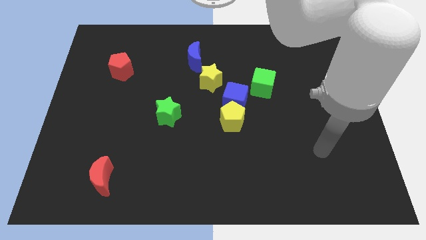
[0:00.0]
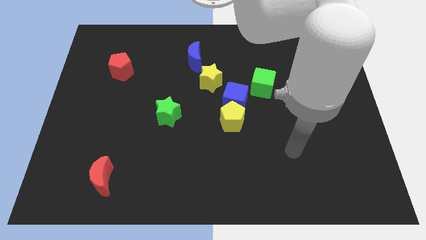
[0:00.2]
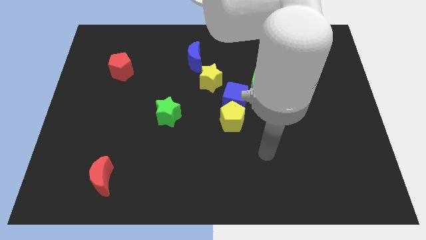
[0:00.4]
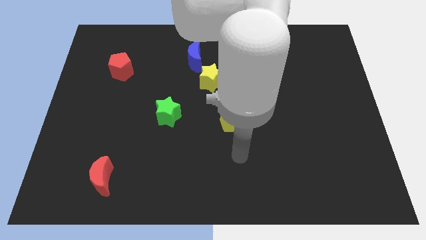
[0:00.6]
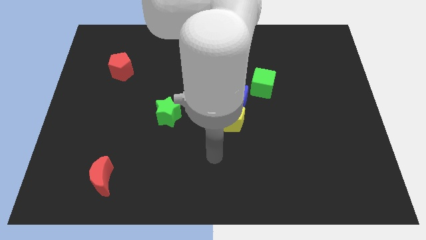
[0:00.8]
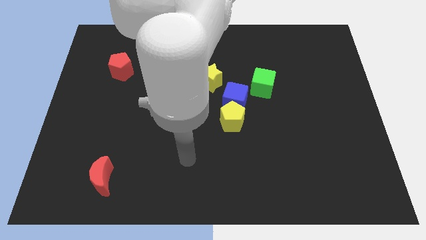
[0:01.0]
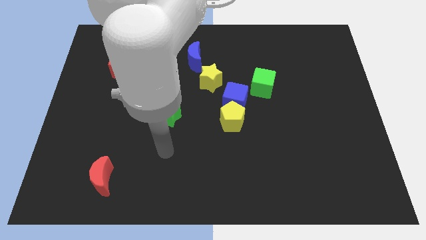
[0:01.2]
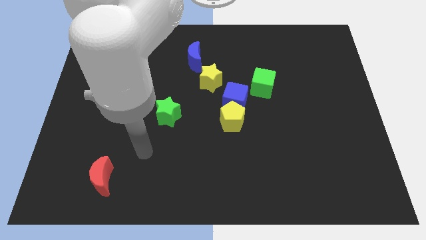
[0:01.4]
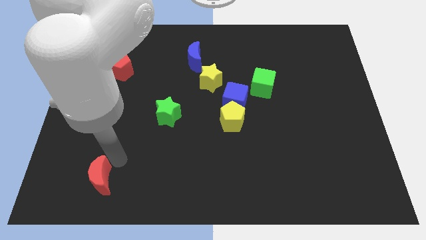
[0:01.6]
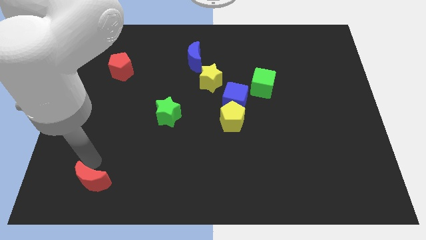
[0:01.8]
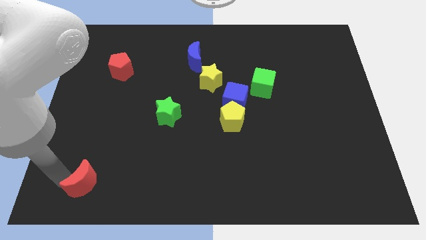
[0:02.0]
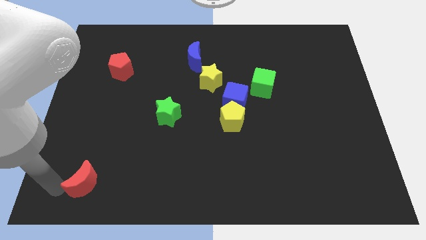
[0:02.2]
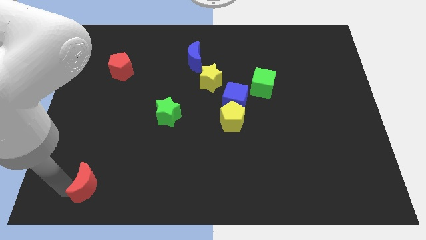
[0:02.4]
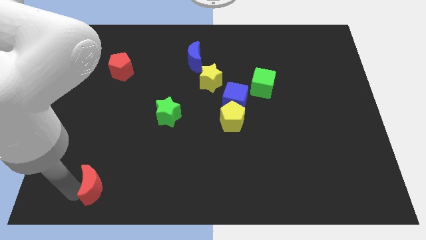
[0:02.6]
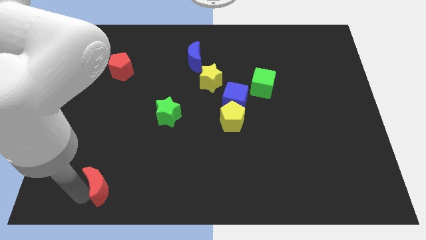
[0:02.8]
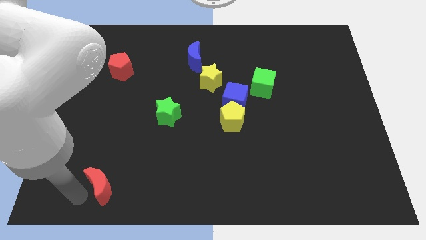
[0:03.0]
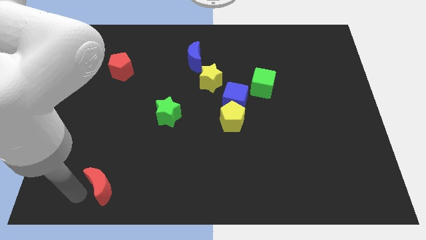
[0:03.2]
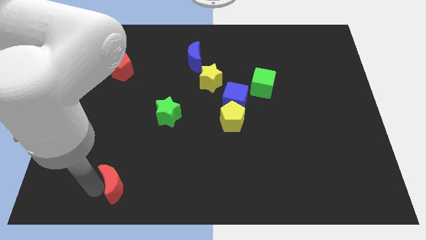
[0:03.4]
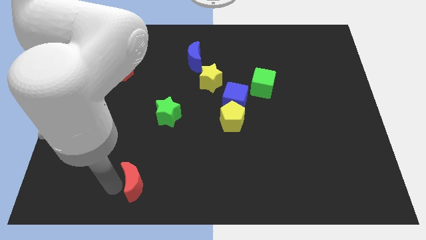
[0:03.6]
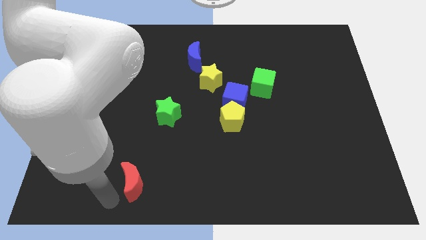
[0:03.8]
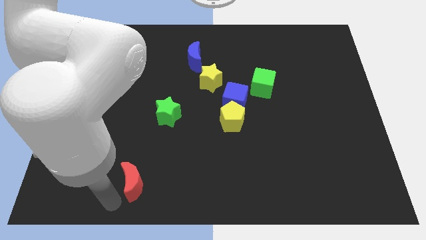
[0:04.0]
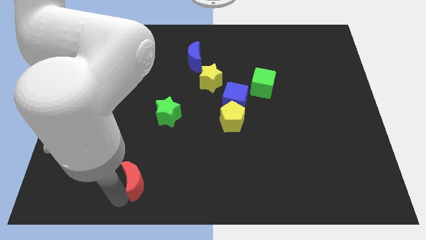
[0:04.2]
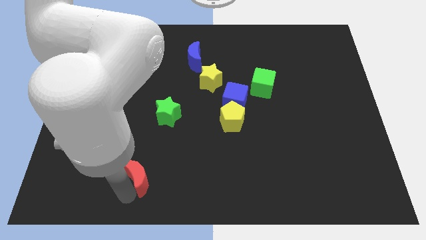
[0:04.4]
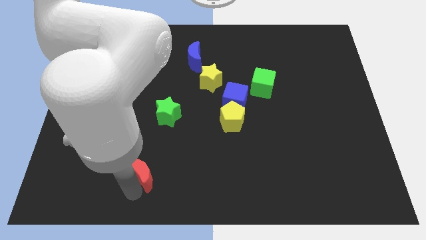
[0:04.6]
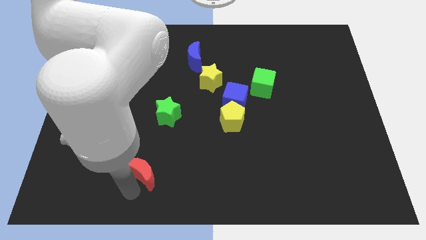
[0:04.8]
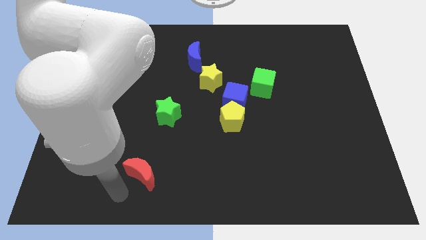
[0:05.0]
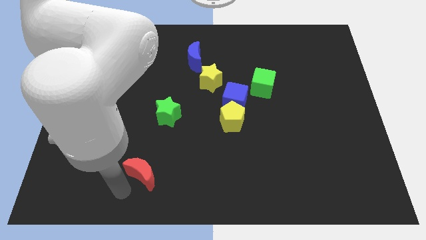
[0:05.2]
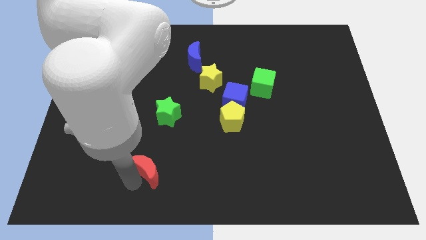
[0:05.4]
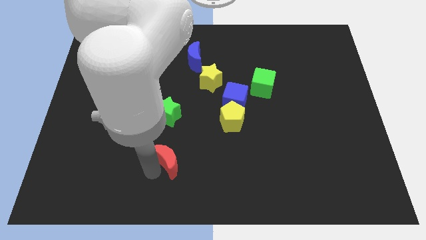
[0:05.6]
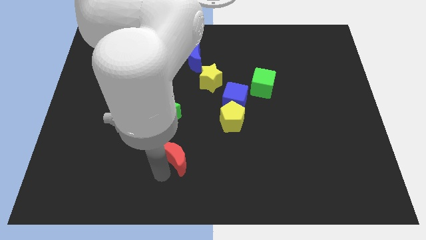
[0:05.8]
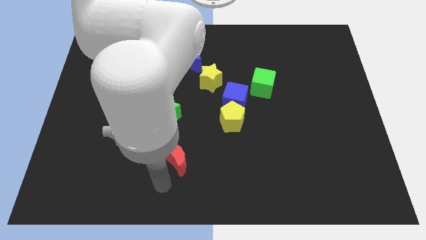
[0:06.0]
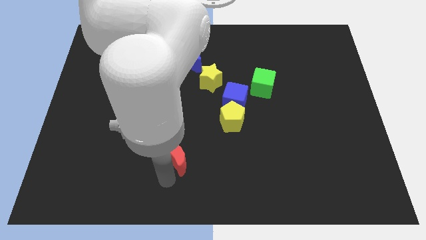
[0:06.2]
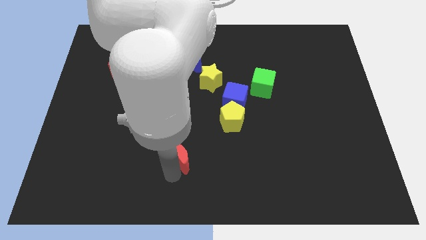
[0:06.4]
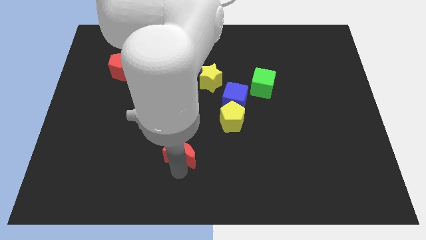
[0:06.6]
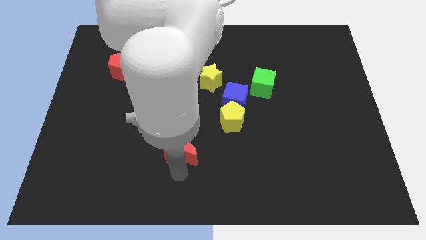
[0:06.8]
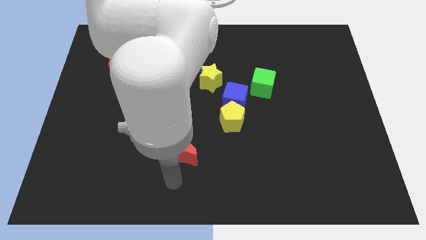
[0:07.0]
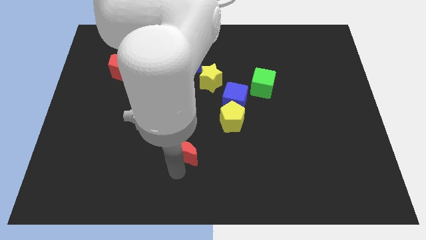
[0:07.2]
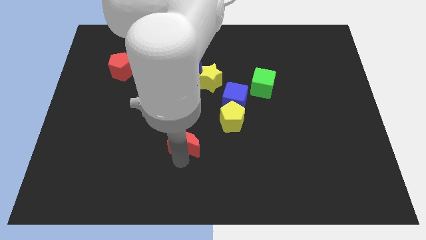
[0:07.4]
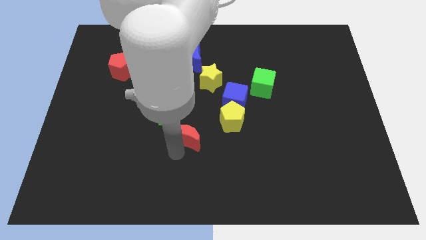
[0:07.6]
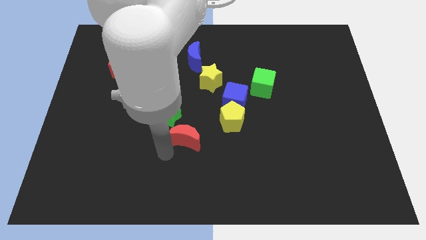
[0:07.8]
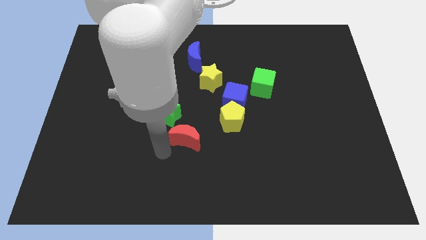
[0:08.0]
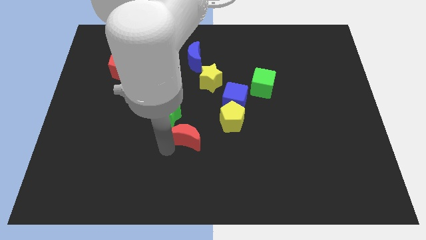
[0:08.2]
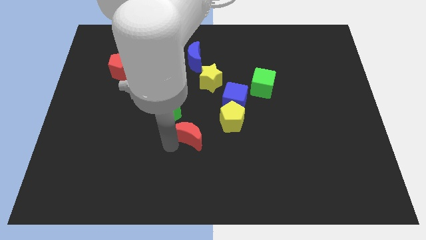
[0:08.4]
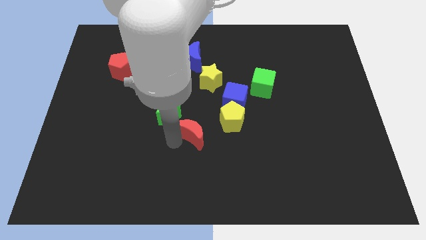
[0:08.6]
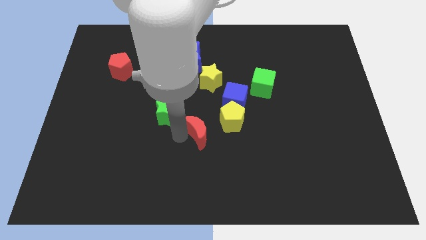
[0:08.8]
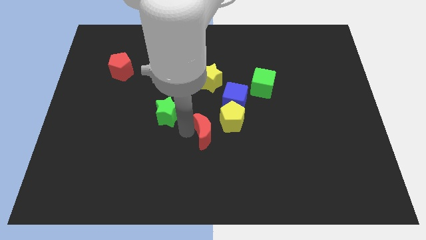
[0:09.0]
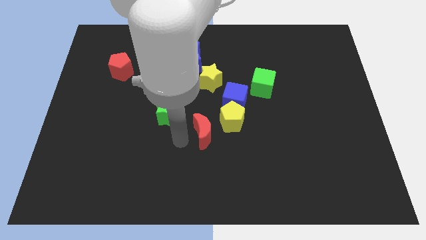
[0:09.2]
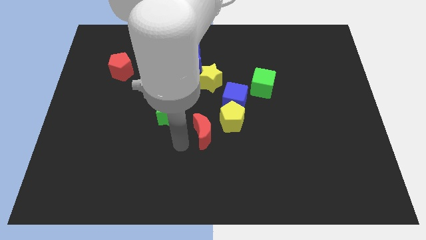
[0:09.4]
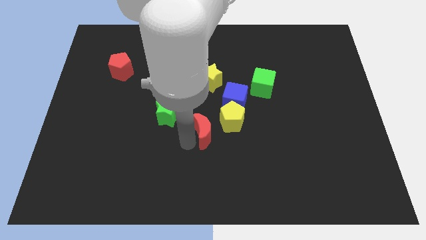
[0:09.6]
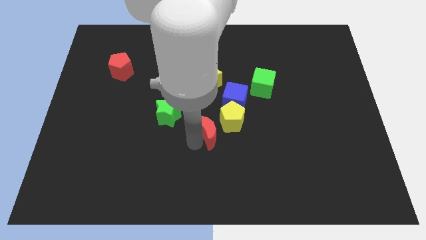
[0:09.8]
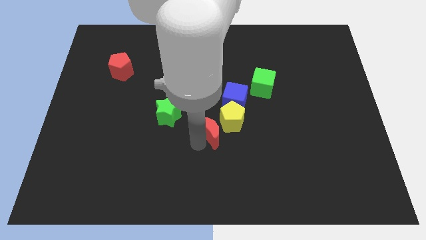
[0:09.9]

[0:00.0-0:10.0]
slide the red moon next to the yellow pentagon

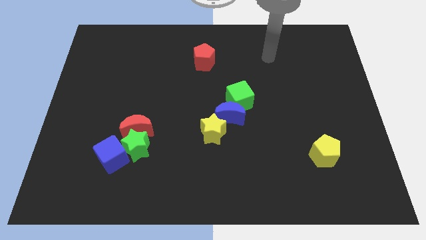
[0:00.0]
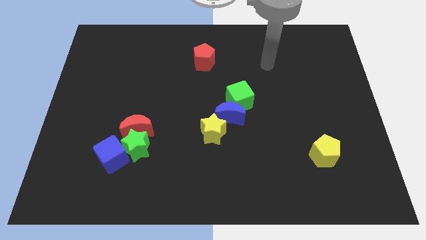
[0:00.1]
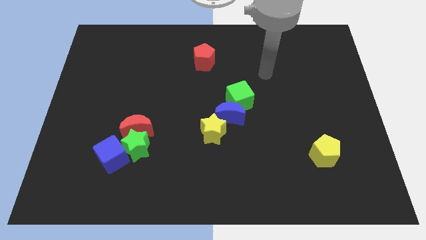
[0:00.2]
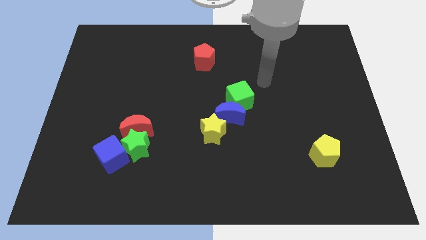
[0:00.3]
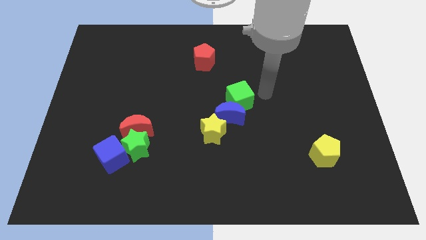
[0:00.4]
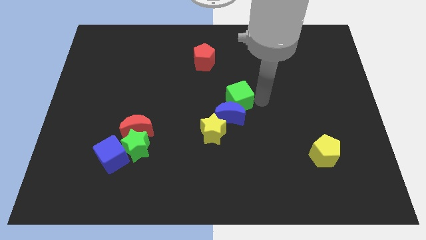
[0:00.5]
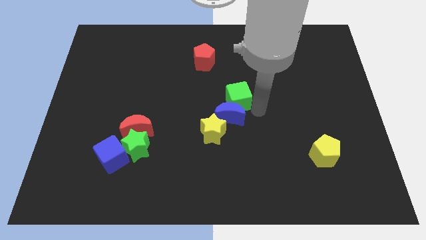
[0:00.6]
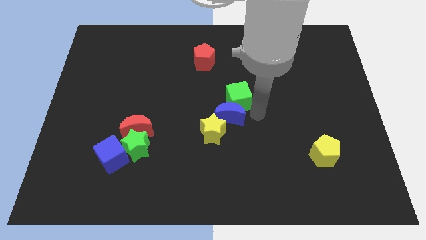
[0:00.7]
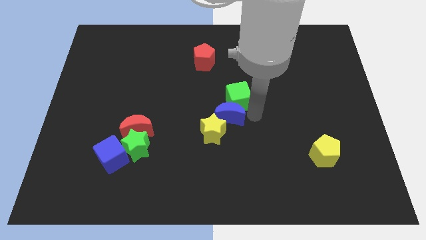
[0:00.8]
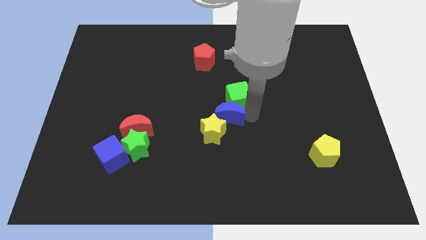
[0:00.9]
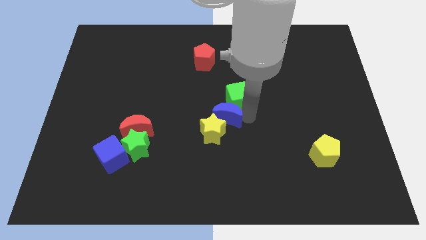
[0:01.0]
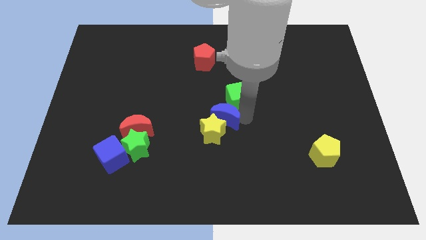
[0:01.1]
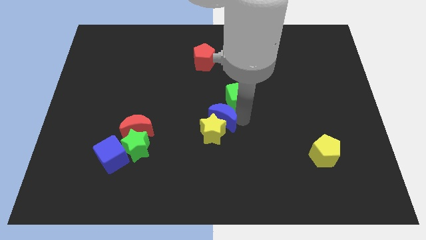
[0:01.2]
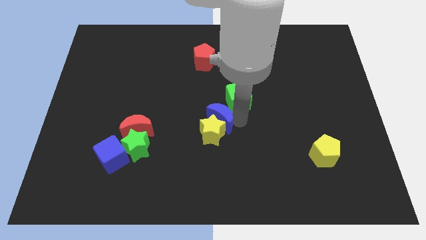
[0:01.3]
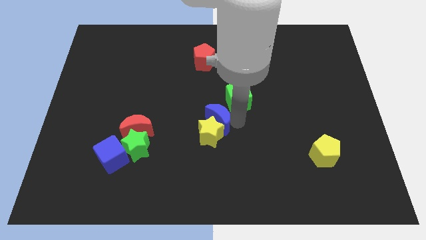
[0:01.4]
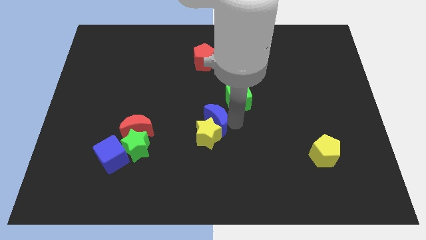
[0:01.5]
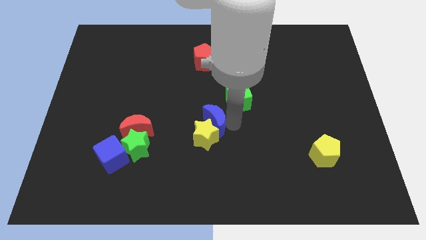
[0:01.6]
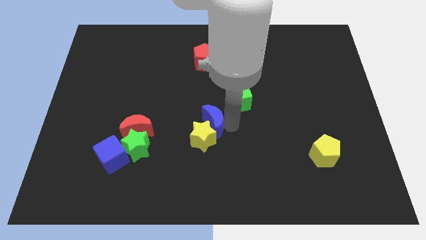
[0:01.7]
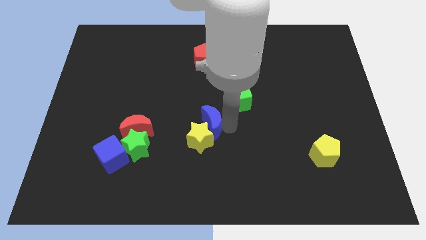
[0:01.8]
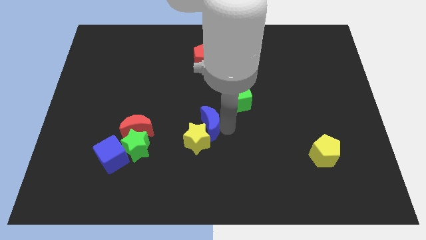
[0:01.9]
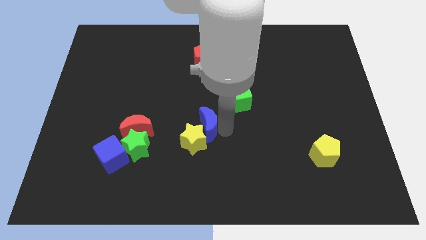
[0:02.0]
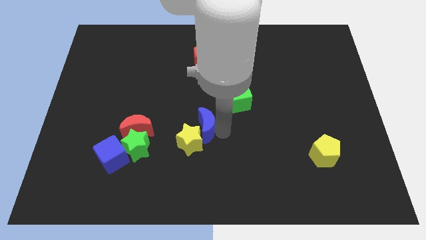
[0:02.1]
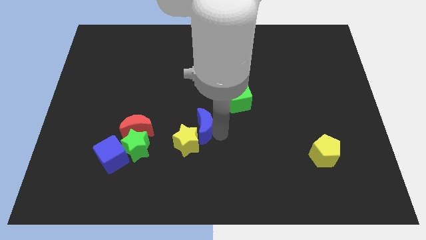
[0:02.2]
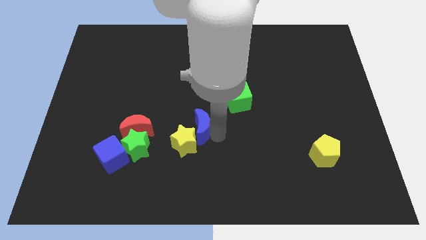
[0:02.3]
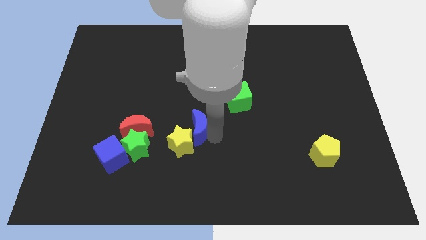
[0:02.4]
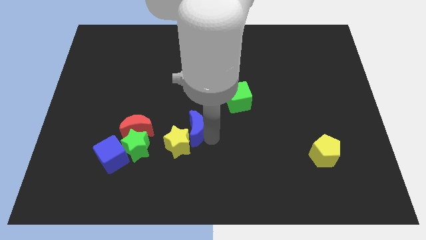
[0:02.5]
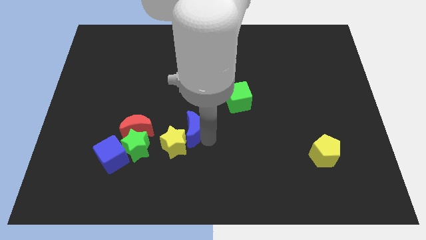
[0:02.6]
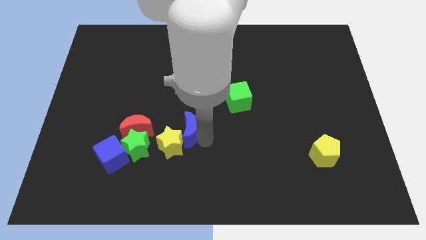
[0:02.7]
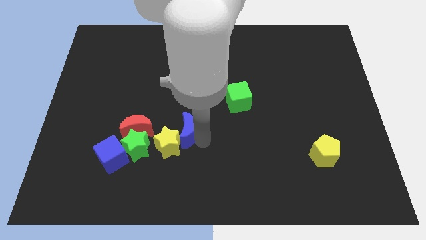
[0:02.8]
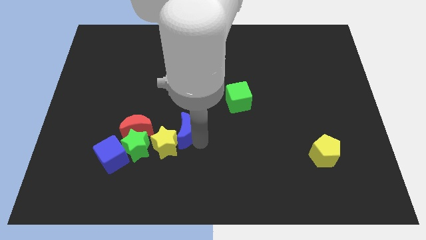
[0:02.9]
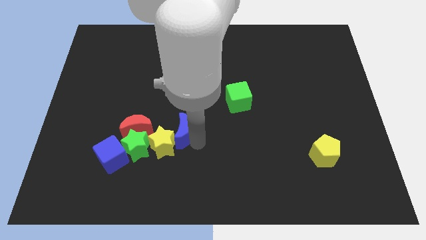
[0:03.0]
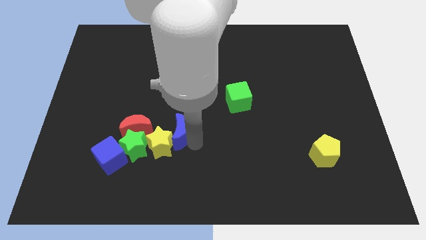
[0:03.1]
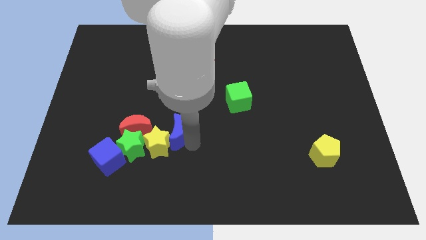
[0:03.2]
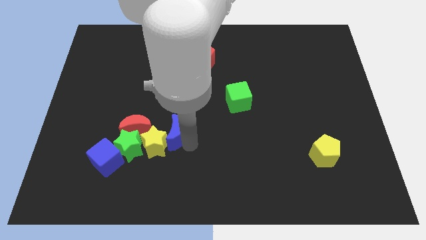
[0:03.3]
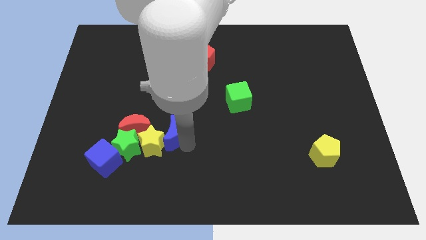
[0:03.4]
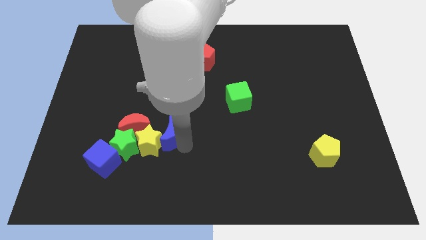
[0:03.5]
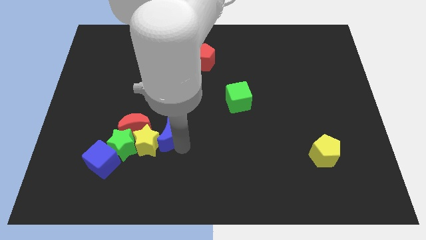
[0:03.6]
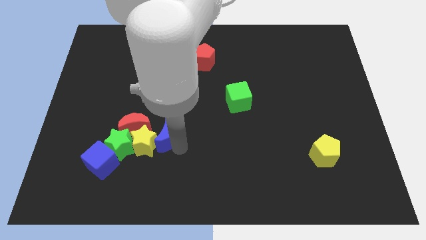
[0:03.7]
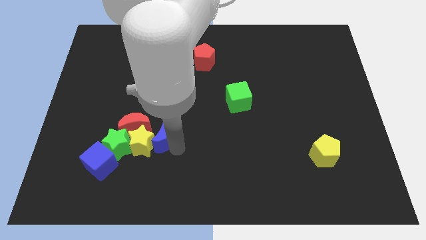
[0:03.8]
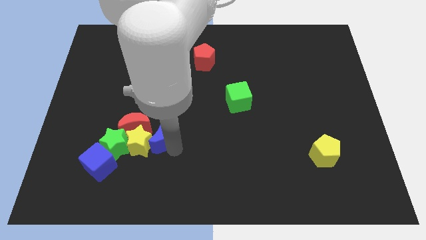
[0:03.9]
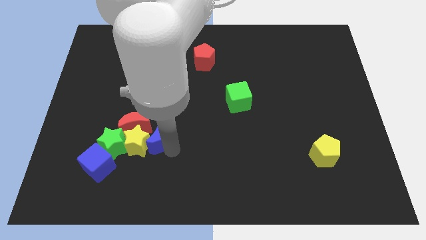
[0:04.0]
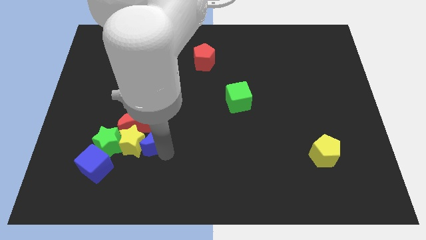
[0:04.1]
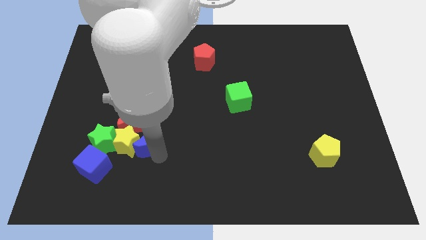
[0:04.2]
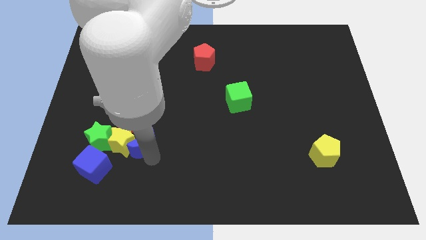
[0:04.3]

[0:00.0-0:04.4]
move the blue moon close to the red moon
